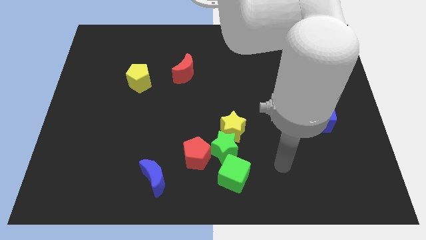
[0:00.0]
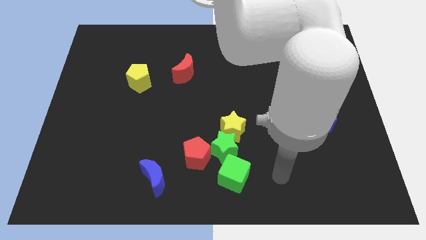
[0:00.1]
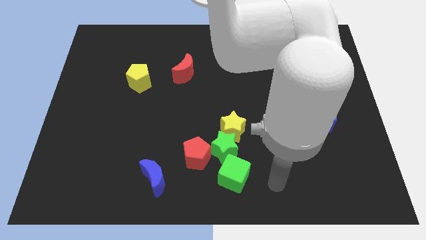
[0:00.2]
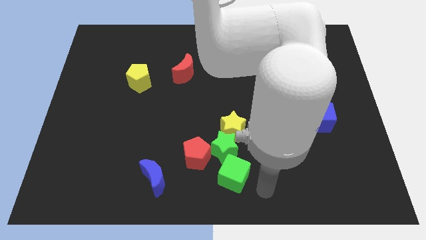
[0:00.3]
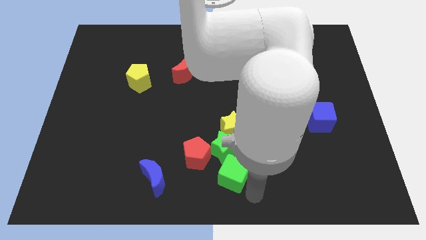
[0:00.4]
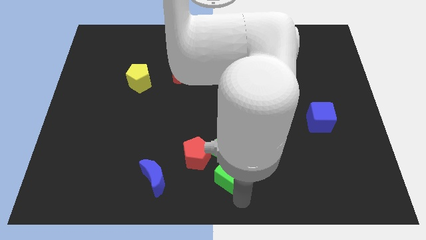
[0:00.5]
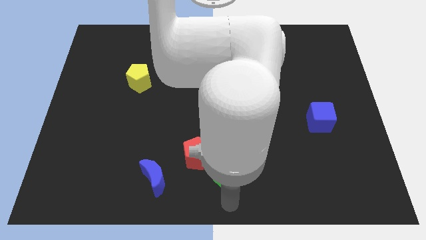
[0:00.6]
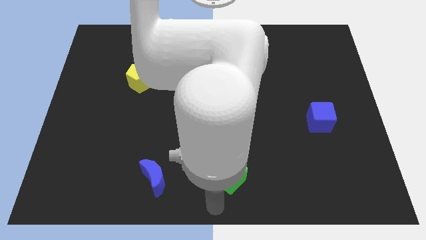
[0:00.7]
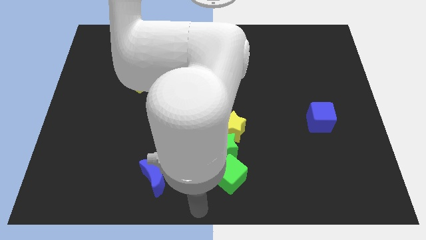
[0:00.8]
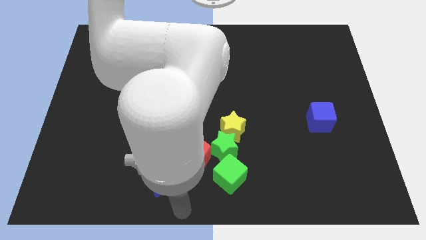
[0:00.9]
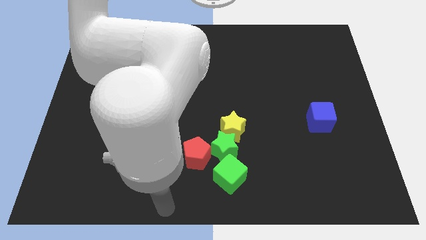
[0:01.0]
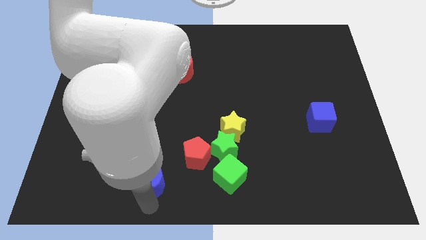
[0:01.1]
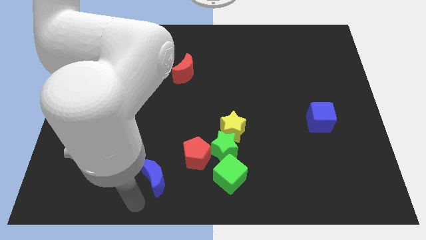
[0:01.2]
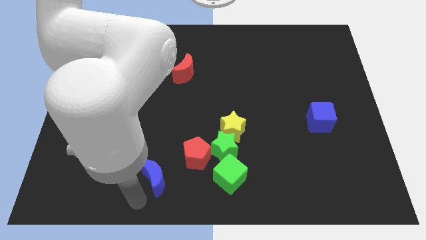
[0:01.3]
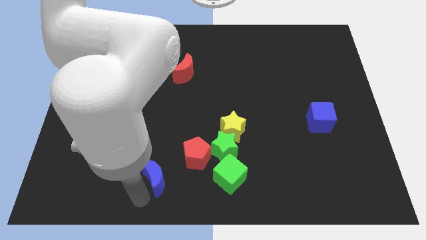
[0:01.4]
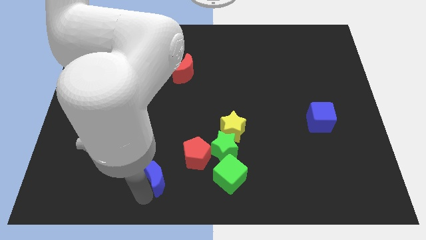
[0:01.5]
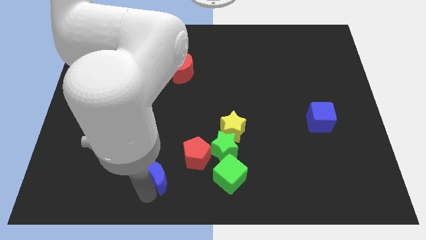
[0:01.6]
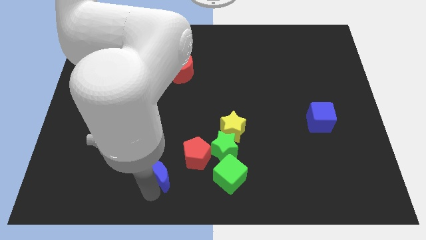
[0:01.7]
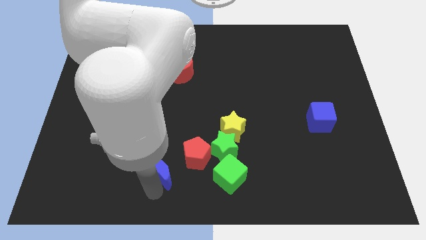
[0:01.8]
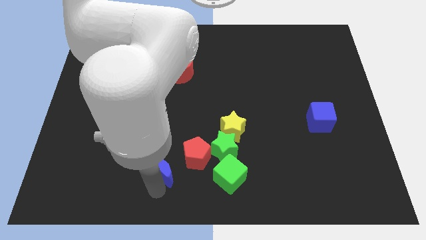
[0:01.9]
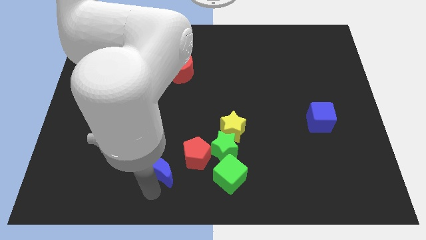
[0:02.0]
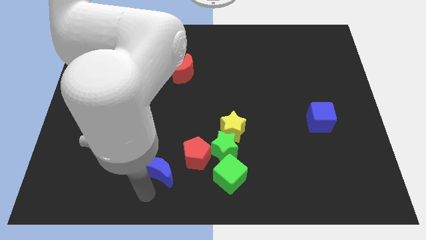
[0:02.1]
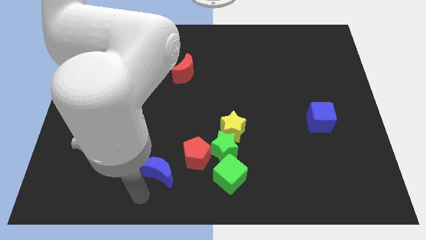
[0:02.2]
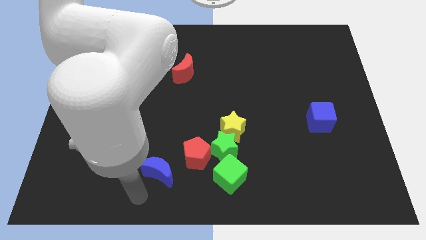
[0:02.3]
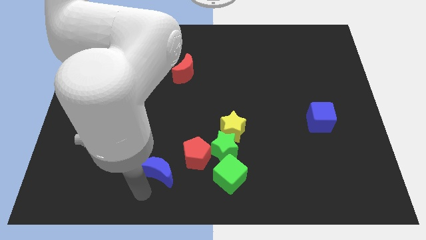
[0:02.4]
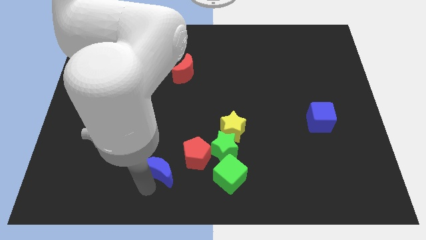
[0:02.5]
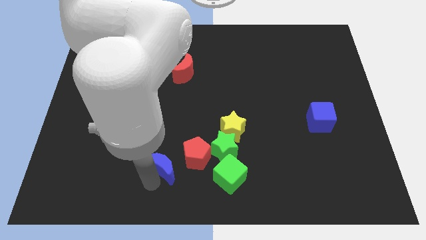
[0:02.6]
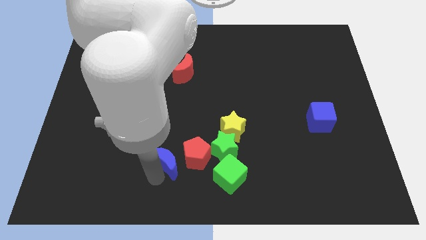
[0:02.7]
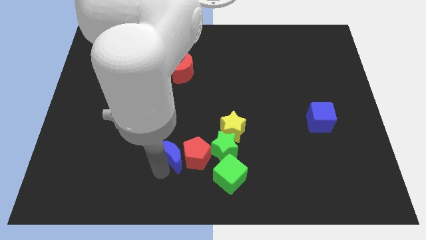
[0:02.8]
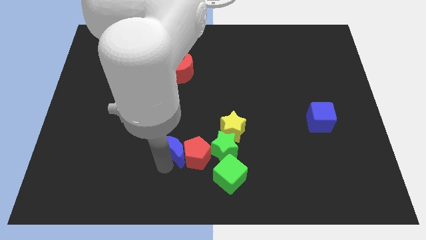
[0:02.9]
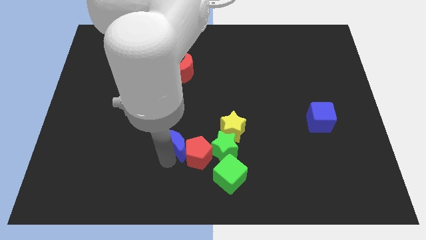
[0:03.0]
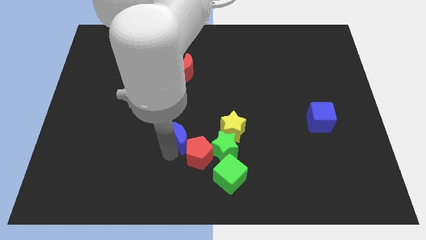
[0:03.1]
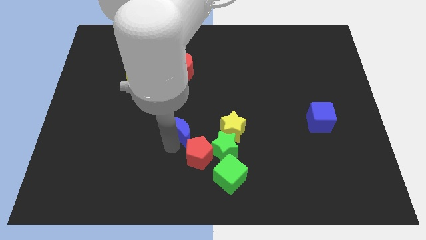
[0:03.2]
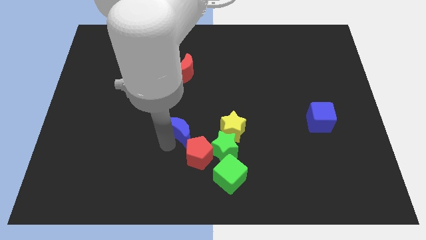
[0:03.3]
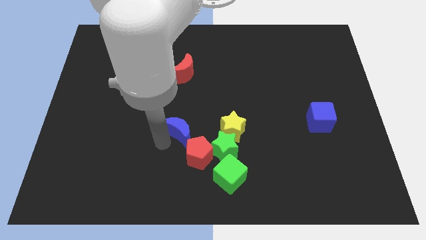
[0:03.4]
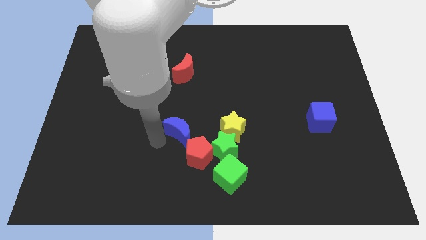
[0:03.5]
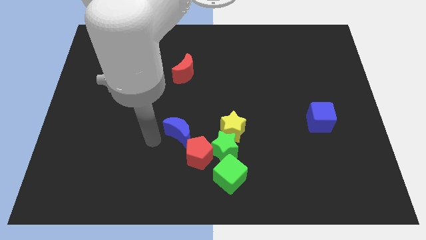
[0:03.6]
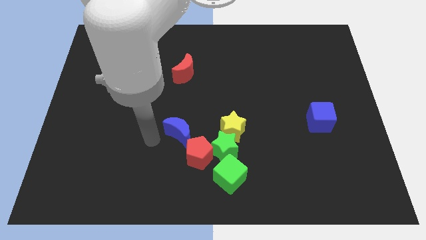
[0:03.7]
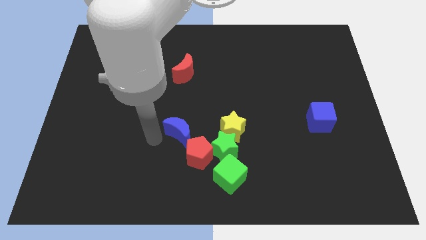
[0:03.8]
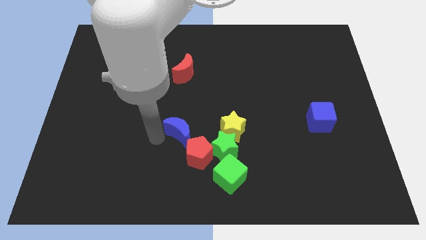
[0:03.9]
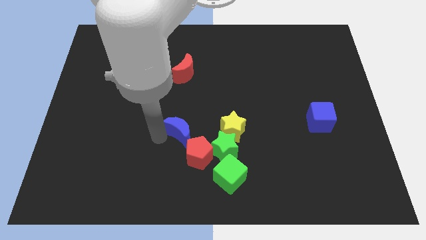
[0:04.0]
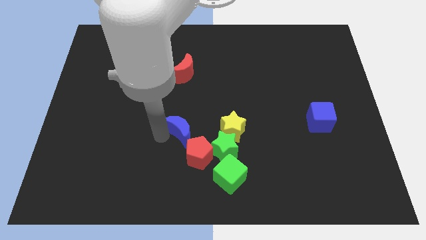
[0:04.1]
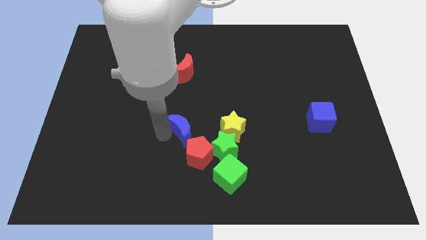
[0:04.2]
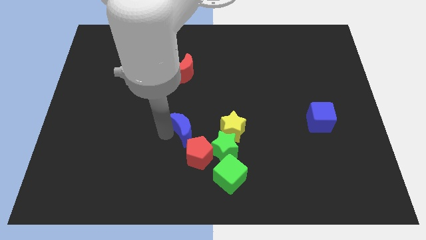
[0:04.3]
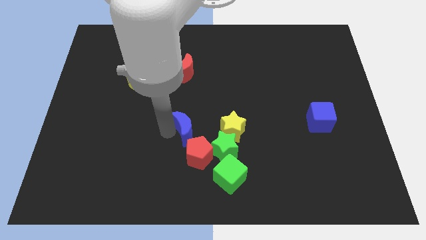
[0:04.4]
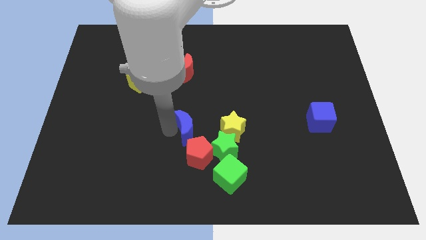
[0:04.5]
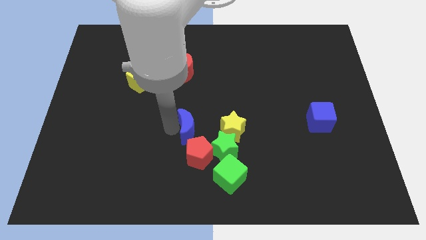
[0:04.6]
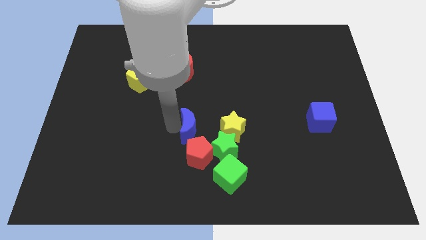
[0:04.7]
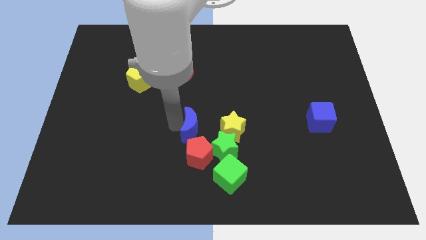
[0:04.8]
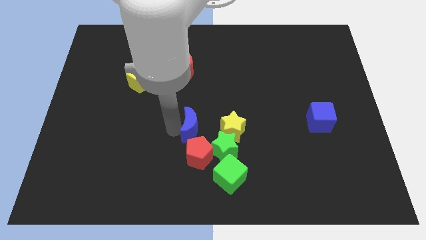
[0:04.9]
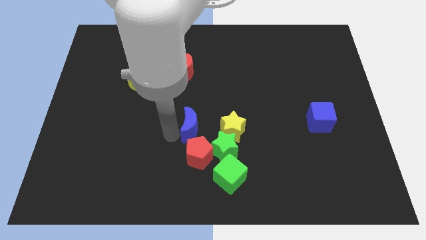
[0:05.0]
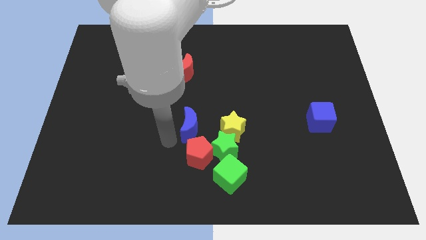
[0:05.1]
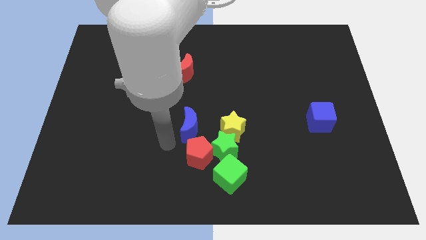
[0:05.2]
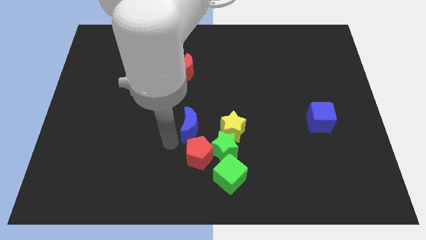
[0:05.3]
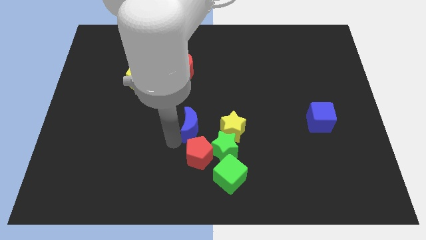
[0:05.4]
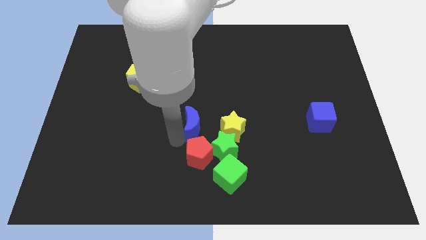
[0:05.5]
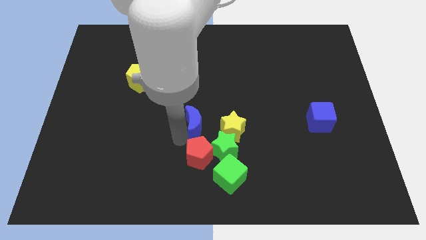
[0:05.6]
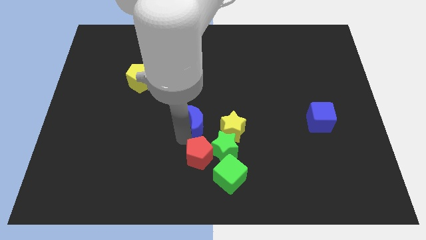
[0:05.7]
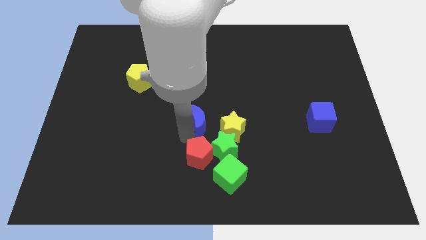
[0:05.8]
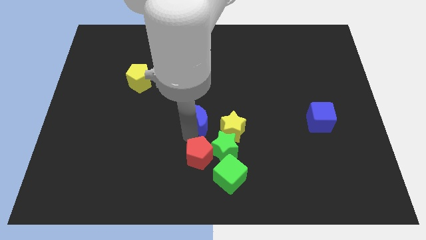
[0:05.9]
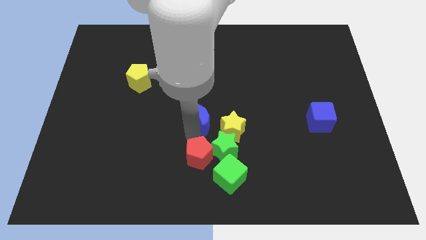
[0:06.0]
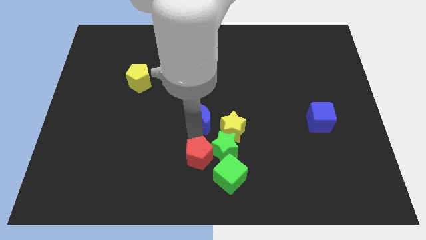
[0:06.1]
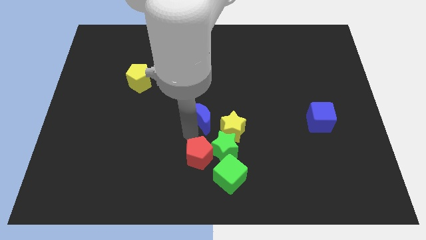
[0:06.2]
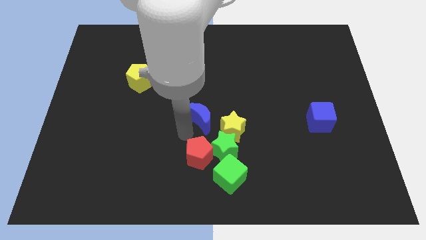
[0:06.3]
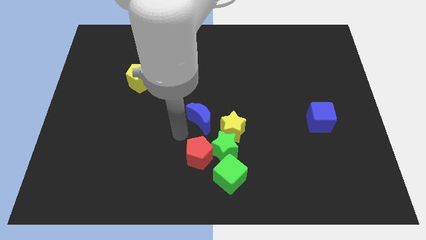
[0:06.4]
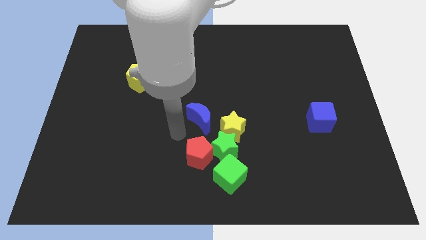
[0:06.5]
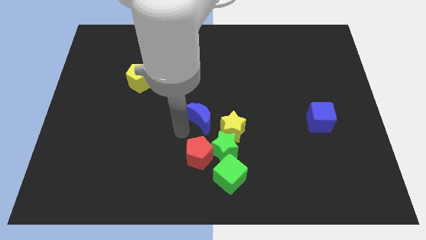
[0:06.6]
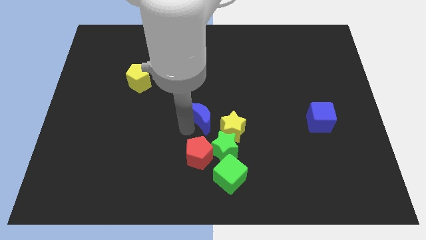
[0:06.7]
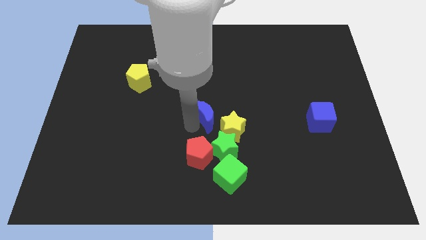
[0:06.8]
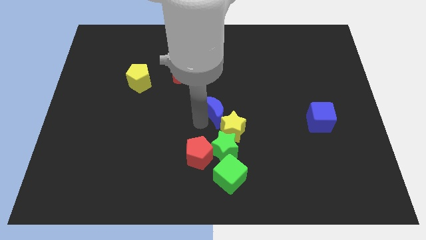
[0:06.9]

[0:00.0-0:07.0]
put the blue moon above the yellow star

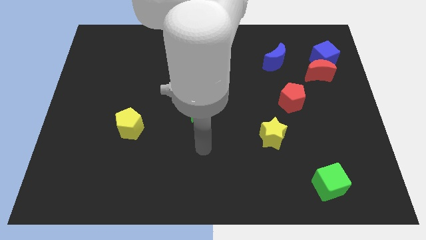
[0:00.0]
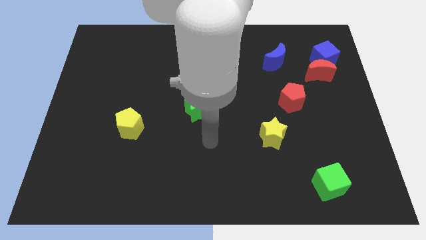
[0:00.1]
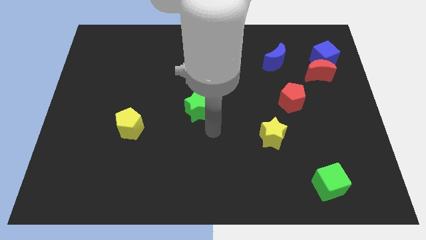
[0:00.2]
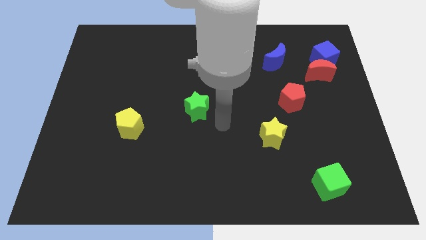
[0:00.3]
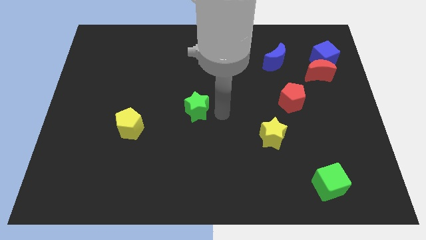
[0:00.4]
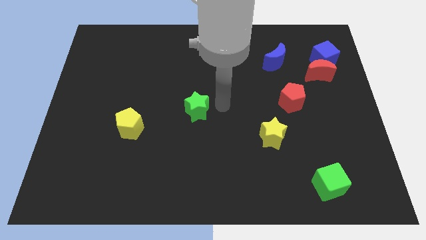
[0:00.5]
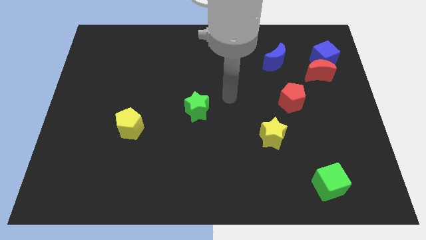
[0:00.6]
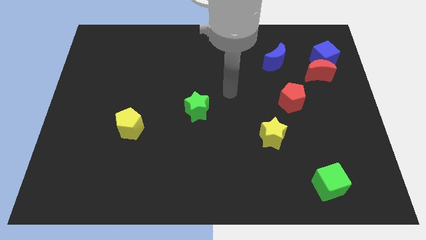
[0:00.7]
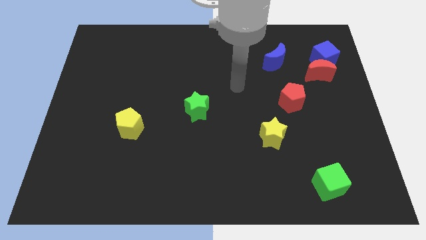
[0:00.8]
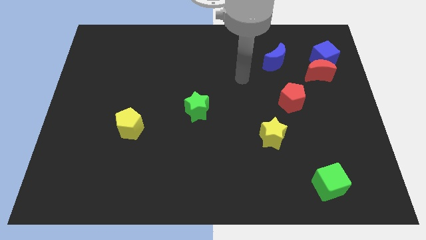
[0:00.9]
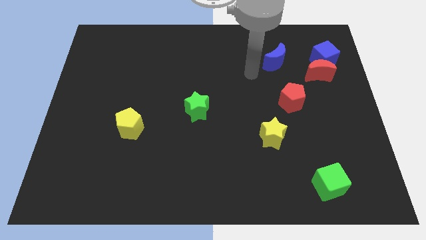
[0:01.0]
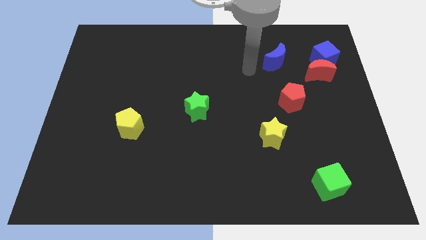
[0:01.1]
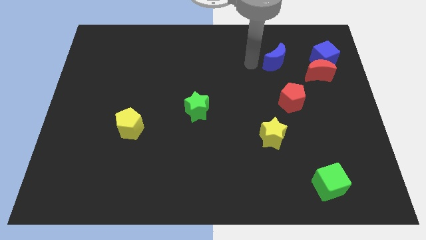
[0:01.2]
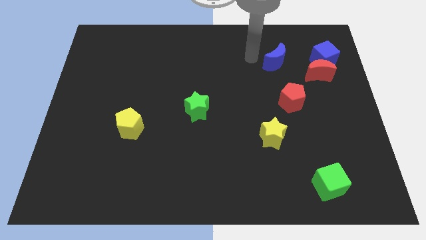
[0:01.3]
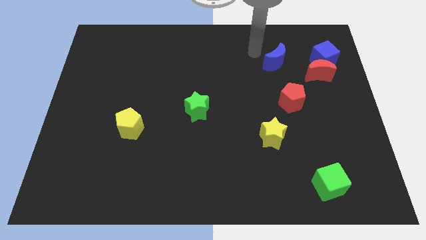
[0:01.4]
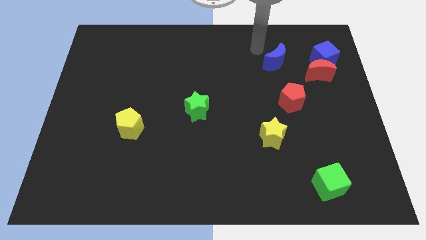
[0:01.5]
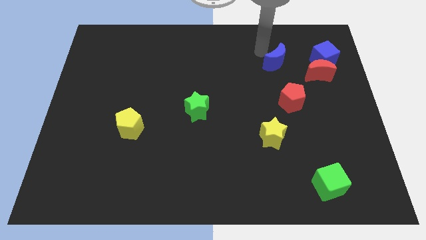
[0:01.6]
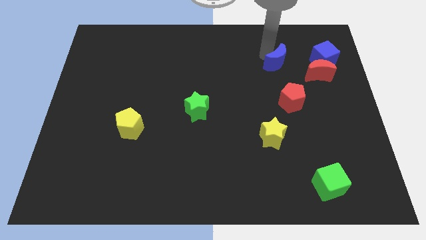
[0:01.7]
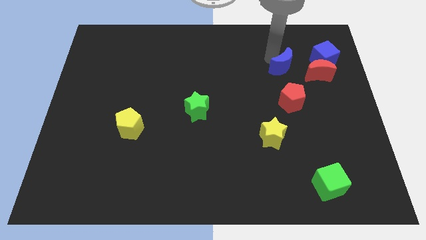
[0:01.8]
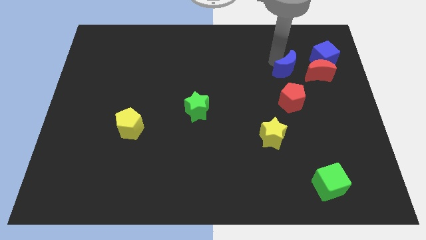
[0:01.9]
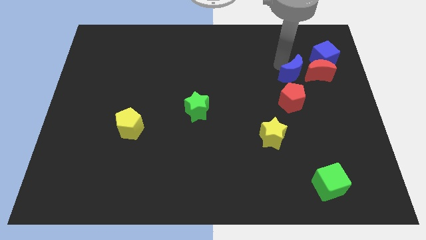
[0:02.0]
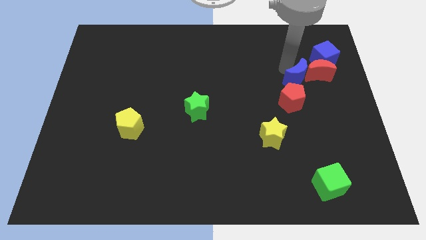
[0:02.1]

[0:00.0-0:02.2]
move the blue moon to the top right of the red pentagon
